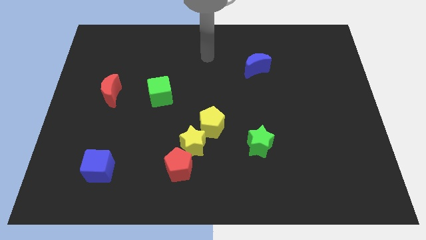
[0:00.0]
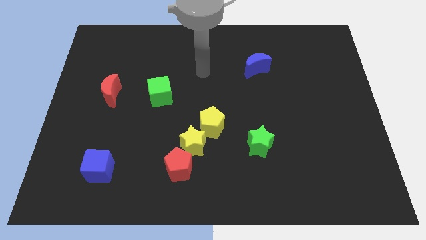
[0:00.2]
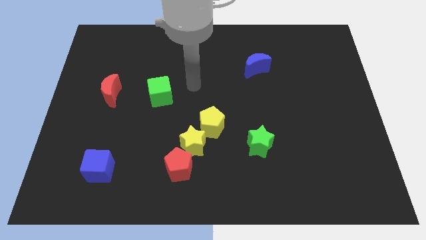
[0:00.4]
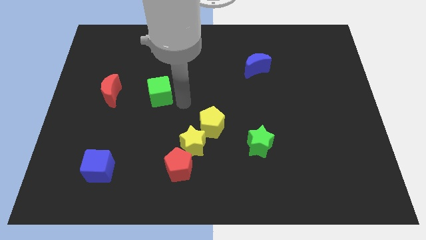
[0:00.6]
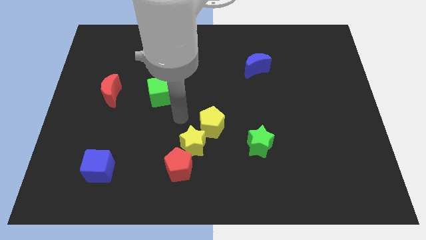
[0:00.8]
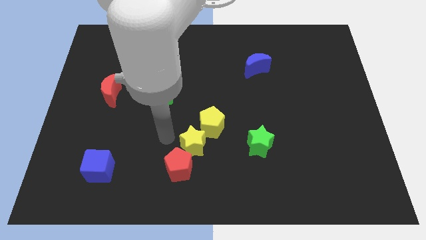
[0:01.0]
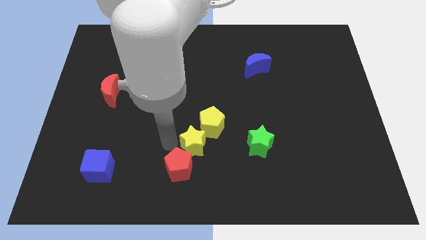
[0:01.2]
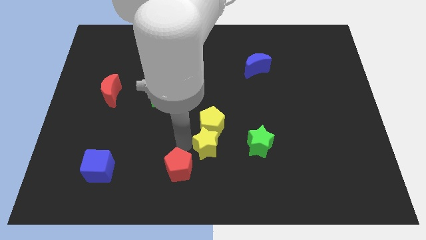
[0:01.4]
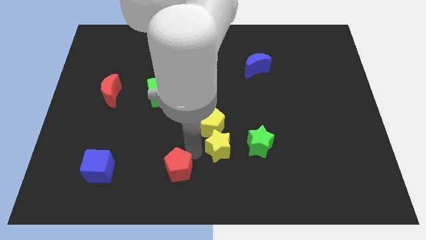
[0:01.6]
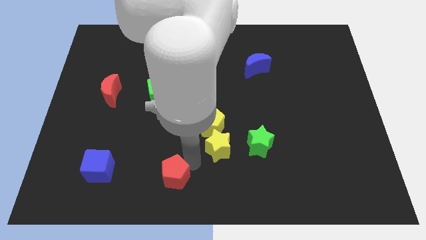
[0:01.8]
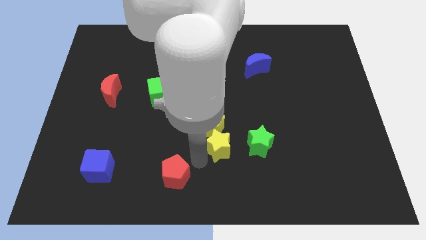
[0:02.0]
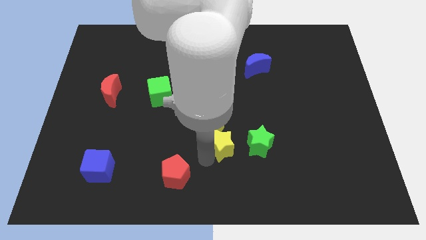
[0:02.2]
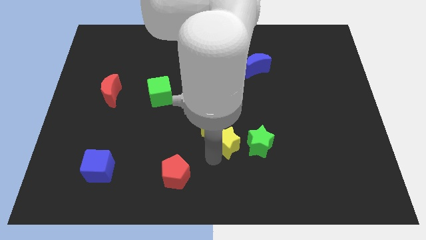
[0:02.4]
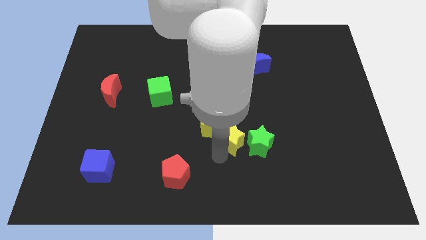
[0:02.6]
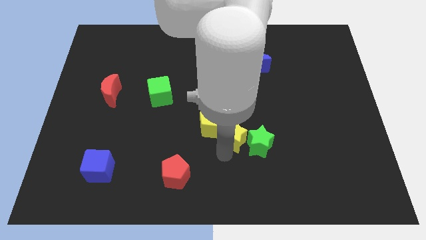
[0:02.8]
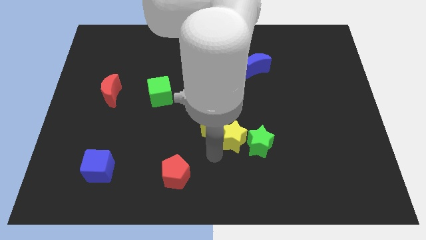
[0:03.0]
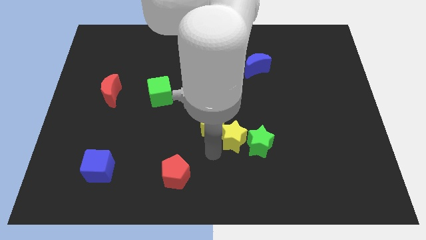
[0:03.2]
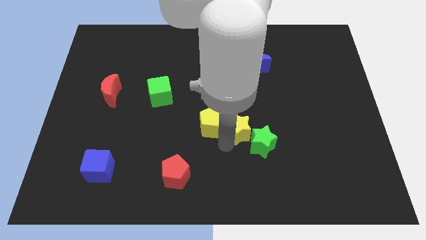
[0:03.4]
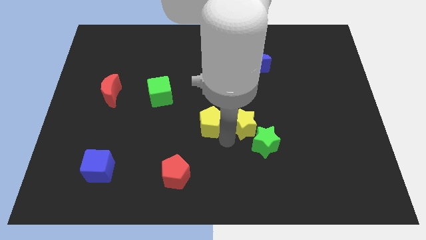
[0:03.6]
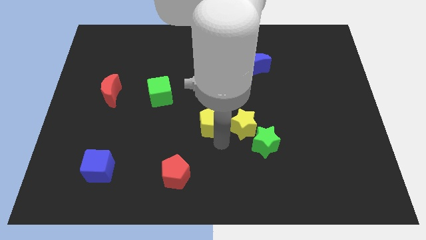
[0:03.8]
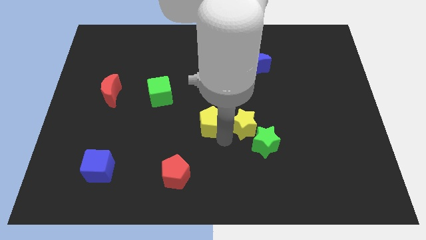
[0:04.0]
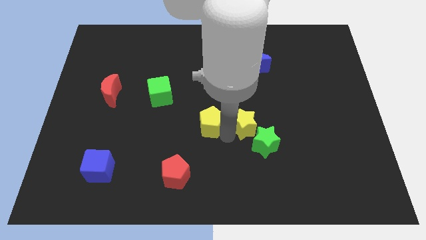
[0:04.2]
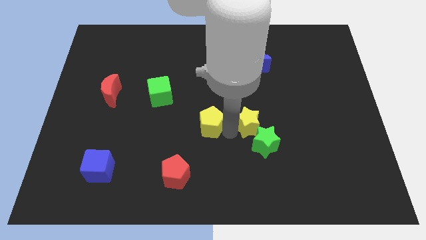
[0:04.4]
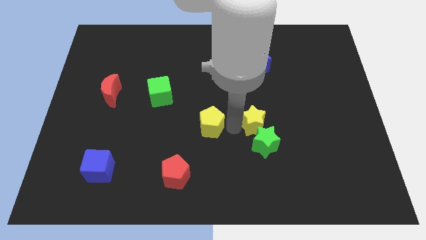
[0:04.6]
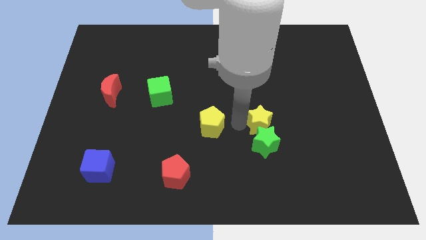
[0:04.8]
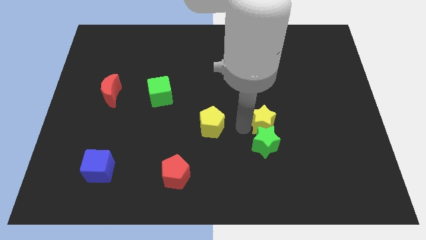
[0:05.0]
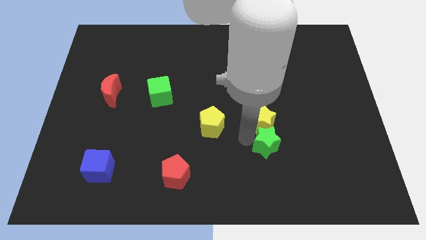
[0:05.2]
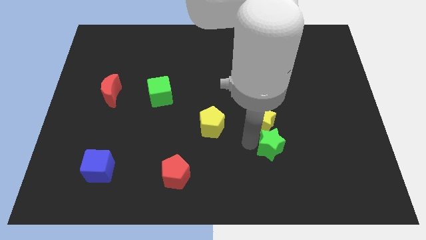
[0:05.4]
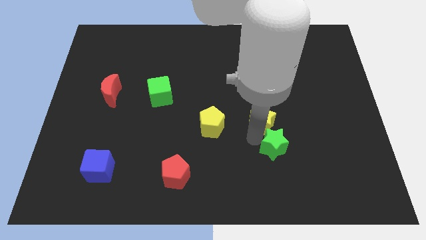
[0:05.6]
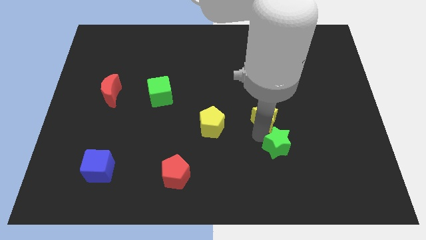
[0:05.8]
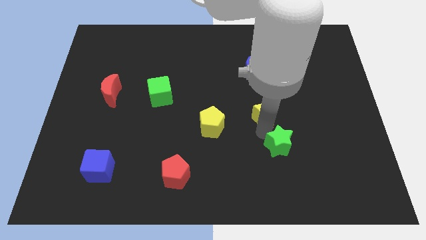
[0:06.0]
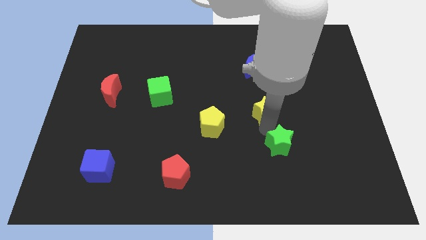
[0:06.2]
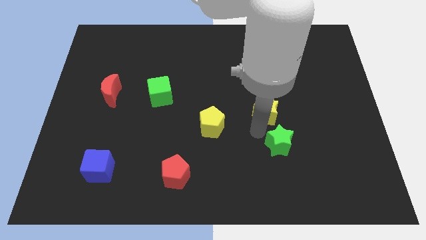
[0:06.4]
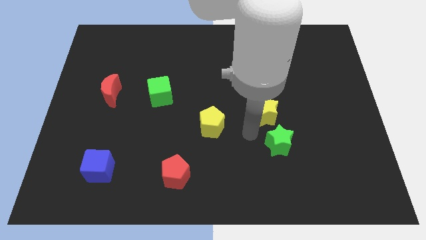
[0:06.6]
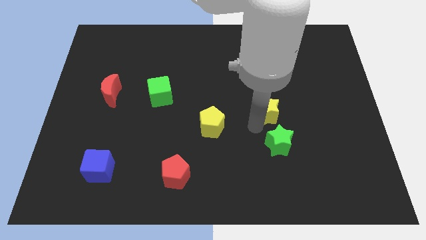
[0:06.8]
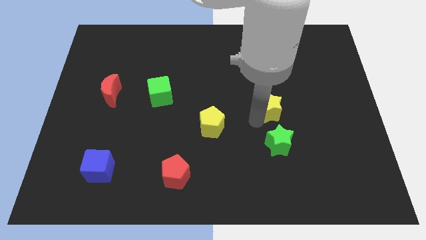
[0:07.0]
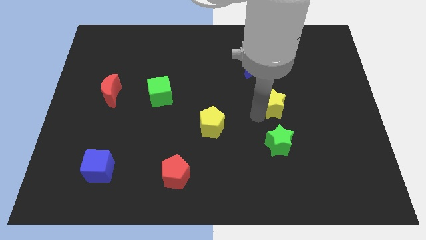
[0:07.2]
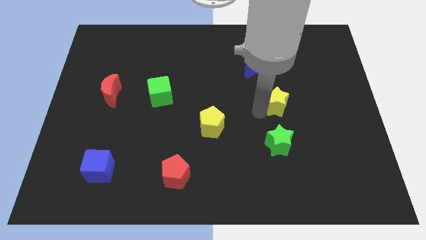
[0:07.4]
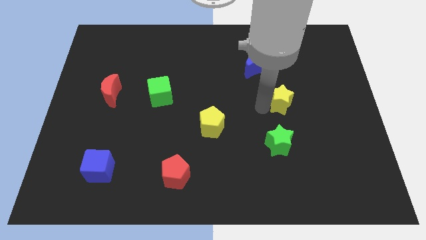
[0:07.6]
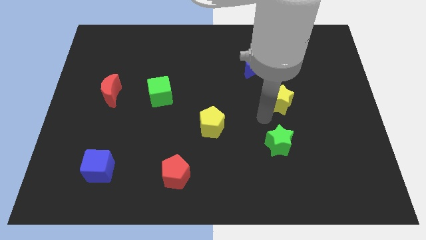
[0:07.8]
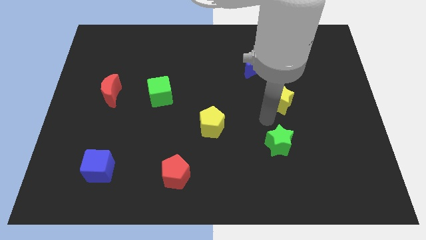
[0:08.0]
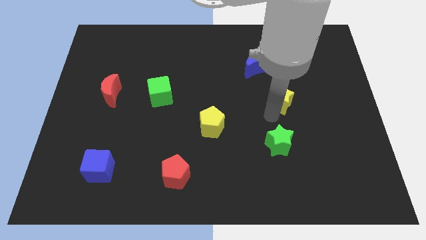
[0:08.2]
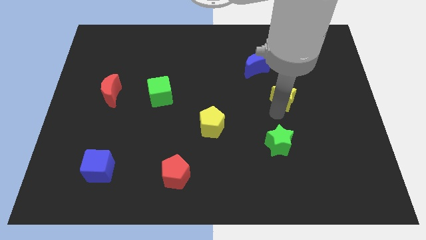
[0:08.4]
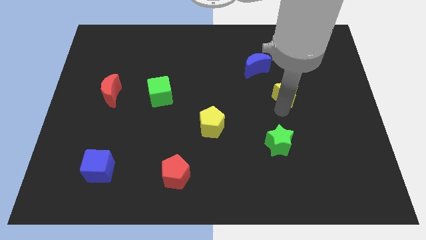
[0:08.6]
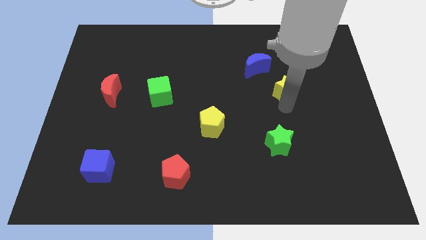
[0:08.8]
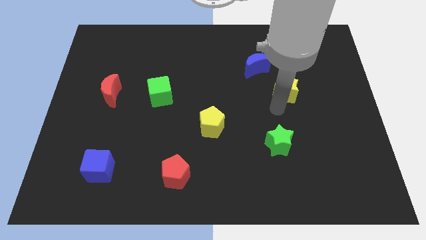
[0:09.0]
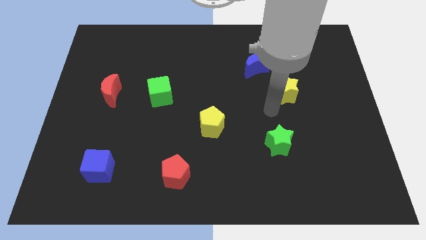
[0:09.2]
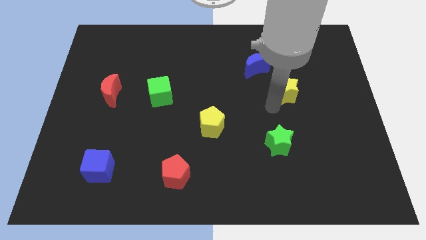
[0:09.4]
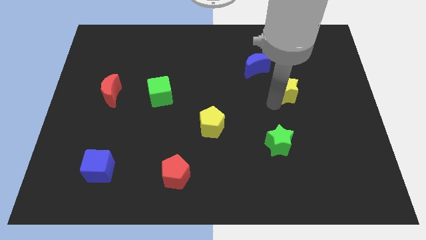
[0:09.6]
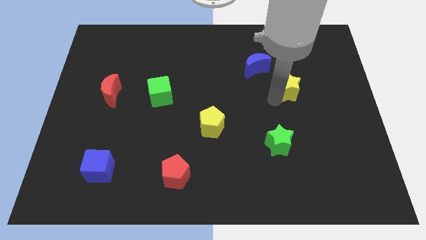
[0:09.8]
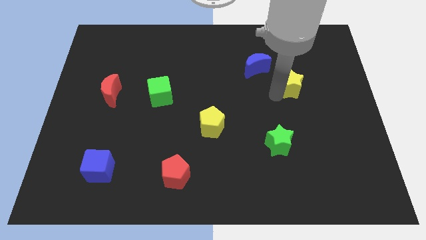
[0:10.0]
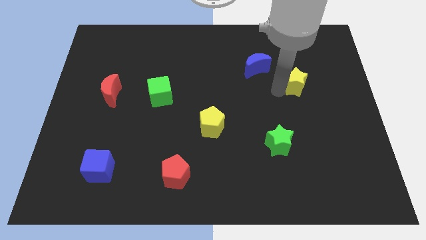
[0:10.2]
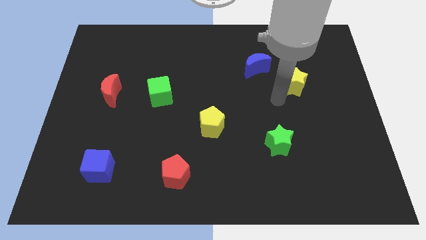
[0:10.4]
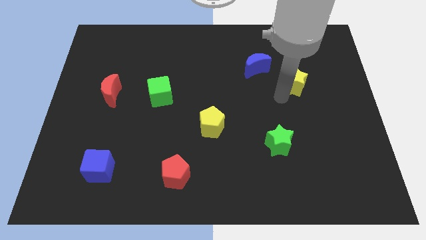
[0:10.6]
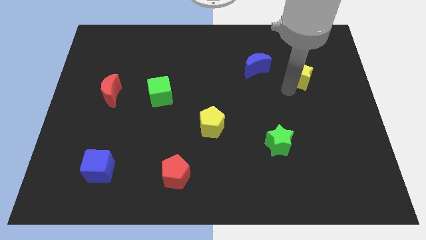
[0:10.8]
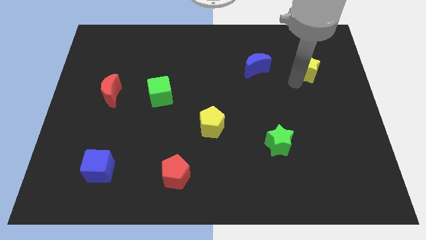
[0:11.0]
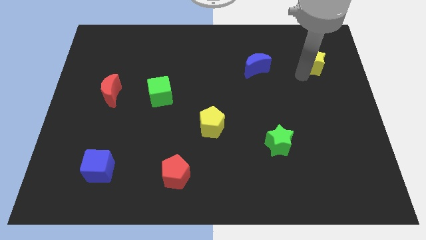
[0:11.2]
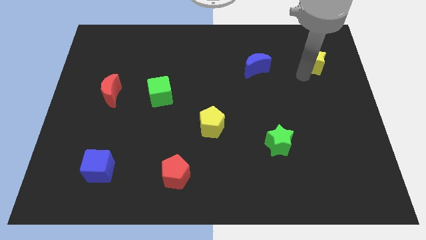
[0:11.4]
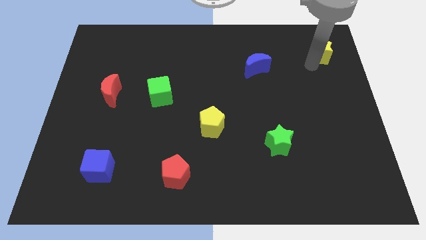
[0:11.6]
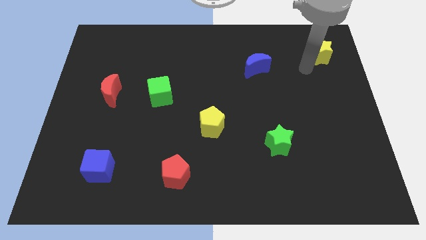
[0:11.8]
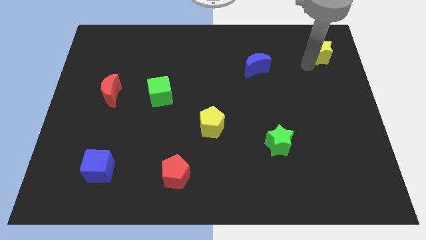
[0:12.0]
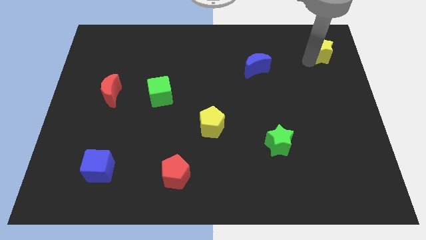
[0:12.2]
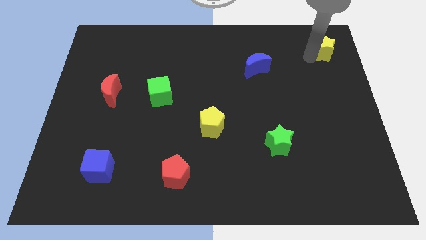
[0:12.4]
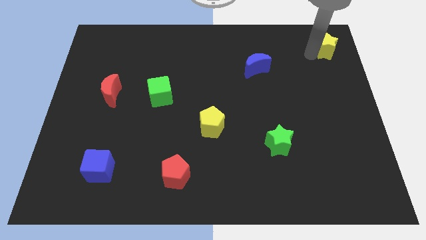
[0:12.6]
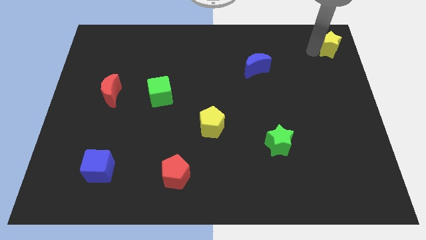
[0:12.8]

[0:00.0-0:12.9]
push the yellow star to the upper right corner

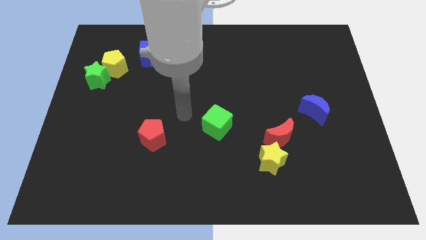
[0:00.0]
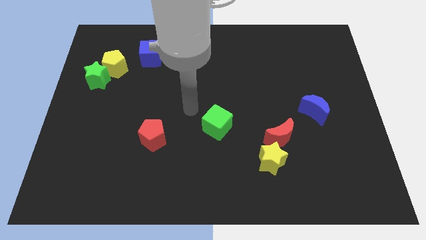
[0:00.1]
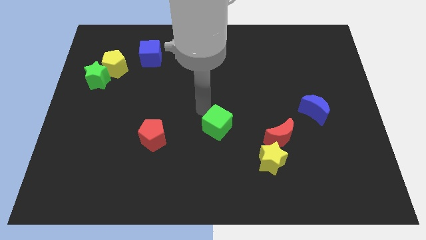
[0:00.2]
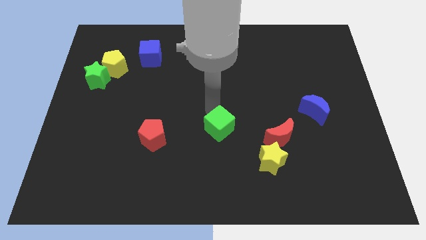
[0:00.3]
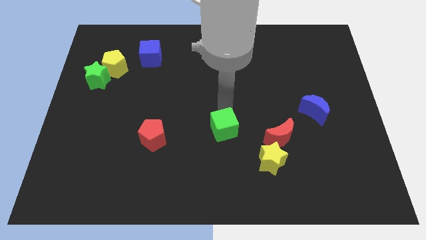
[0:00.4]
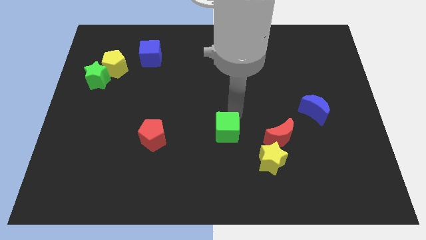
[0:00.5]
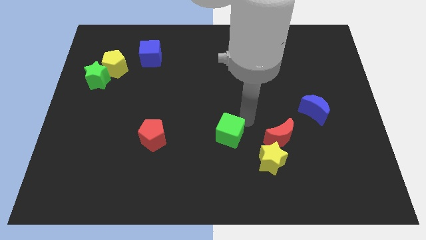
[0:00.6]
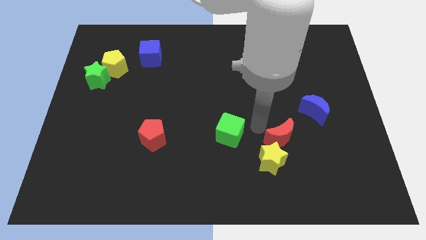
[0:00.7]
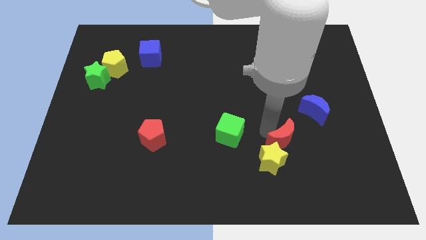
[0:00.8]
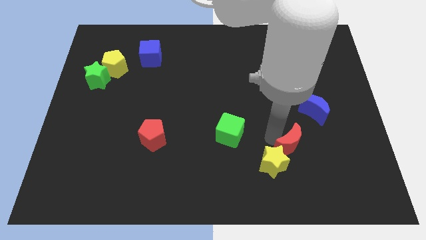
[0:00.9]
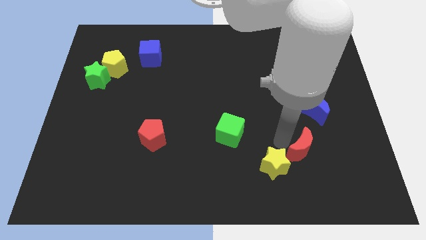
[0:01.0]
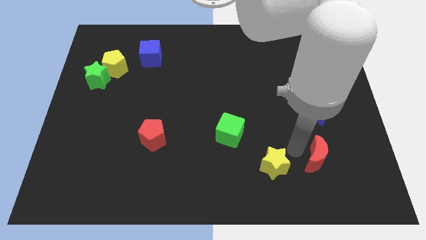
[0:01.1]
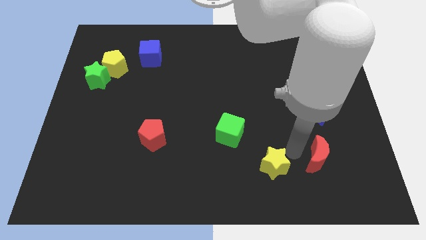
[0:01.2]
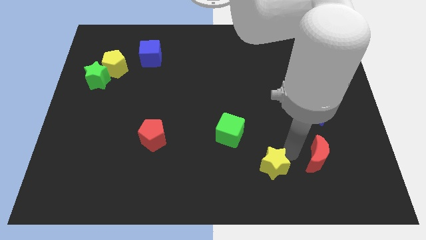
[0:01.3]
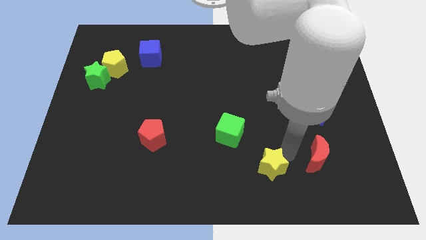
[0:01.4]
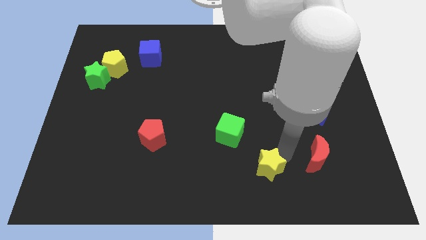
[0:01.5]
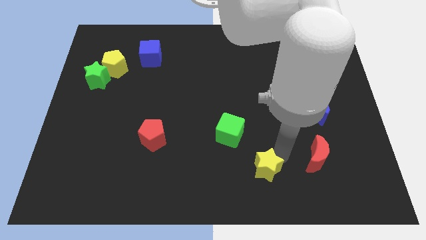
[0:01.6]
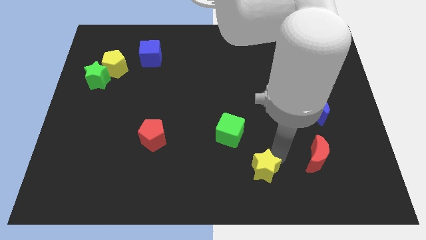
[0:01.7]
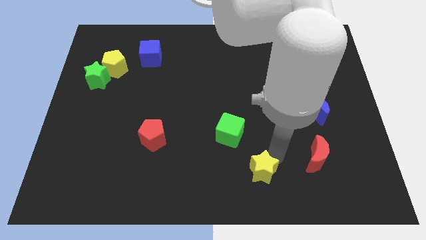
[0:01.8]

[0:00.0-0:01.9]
put the yellow star to the bottom
